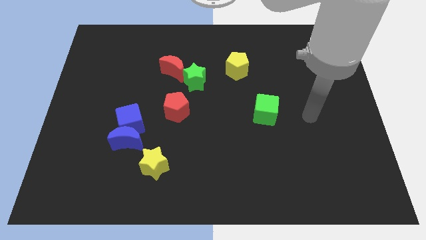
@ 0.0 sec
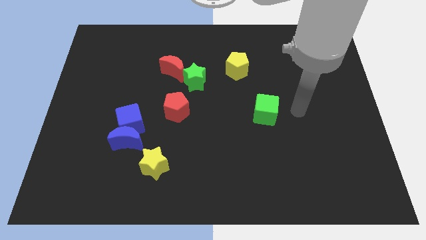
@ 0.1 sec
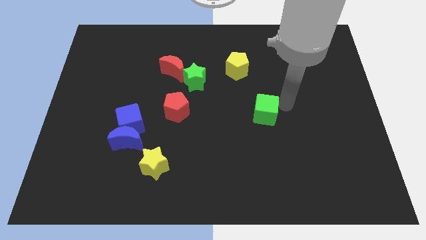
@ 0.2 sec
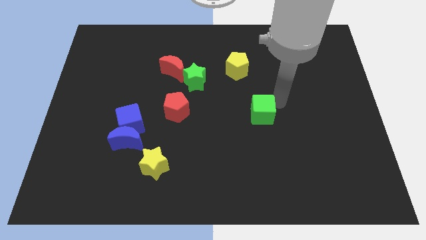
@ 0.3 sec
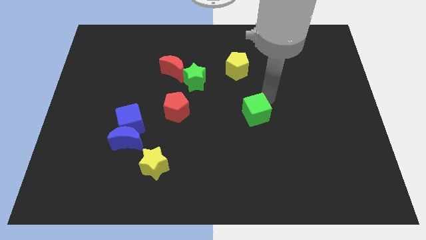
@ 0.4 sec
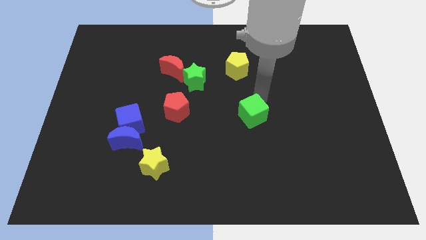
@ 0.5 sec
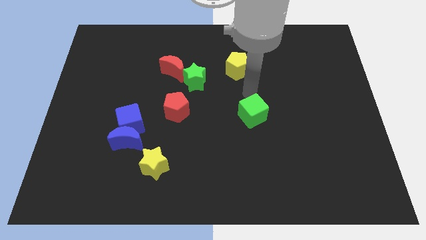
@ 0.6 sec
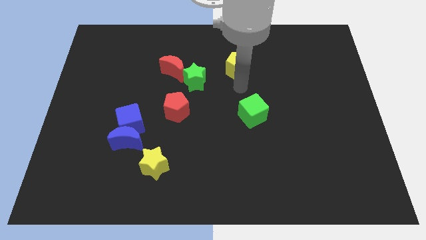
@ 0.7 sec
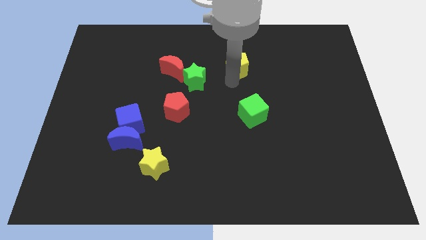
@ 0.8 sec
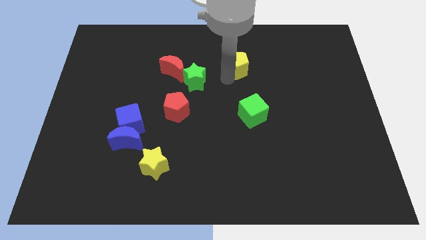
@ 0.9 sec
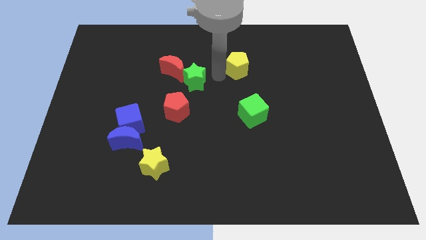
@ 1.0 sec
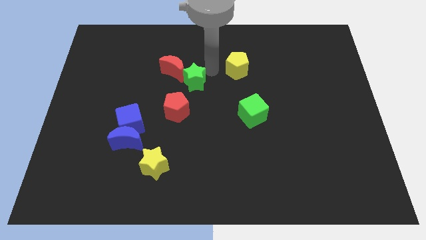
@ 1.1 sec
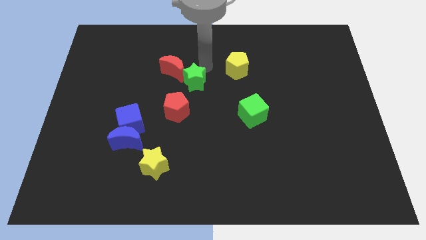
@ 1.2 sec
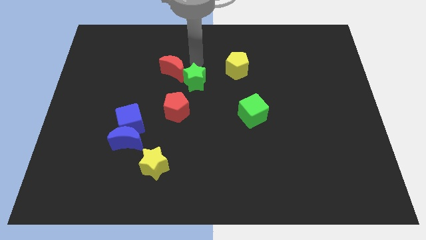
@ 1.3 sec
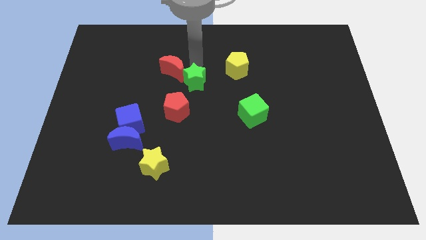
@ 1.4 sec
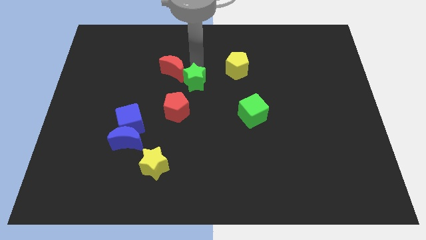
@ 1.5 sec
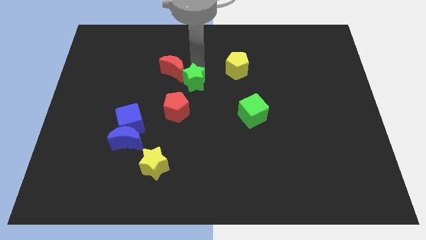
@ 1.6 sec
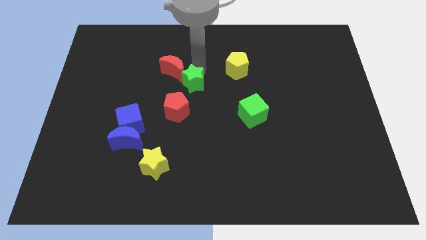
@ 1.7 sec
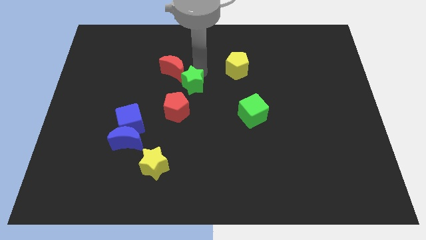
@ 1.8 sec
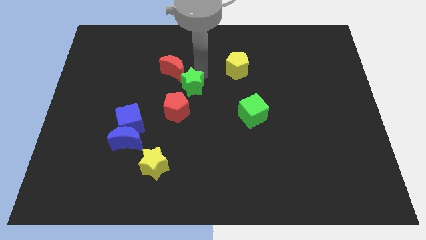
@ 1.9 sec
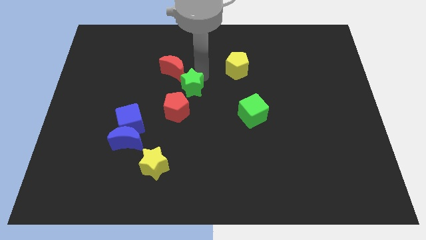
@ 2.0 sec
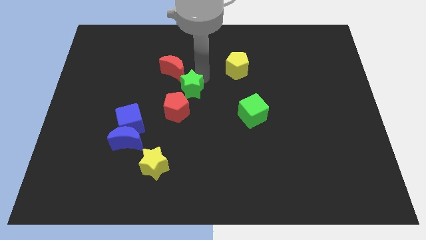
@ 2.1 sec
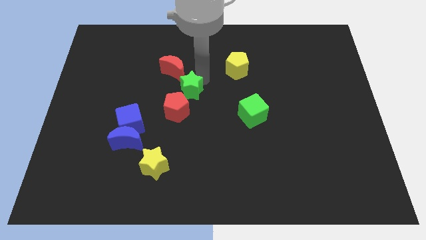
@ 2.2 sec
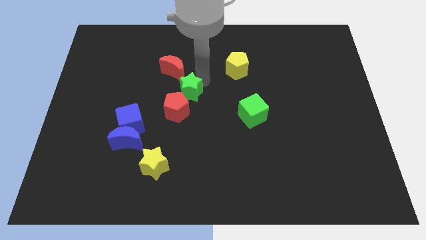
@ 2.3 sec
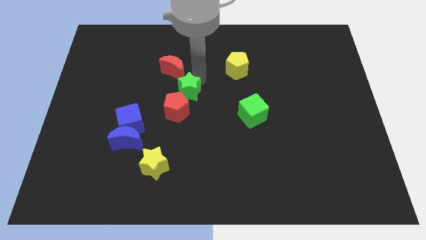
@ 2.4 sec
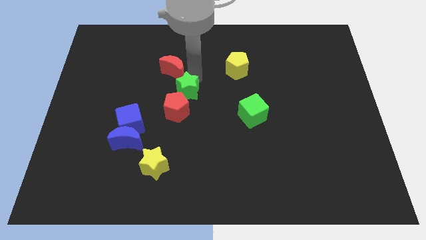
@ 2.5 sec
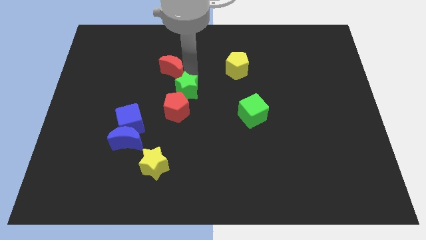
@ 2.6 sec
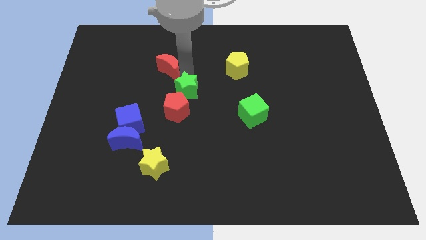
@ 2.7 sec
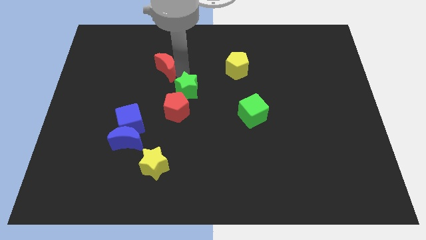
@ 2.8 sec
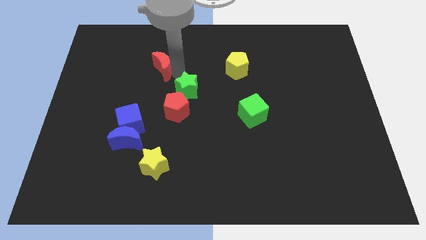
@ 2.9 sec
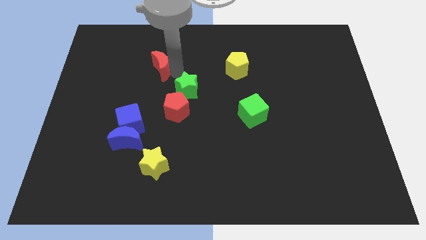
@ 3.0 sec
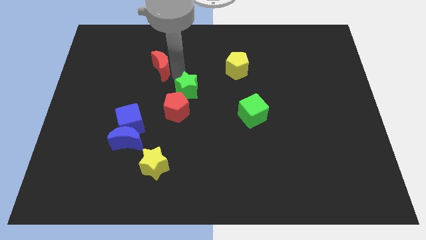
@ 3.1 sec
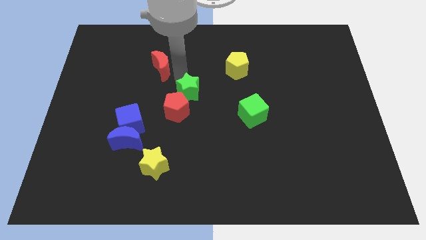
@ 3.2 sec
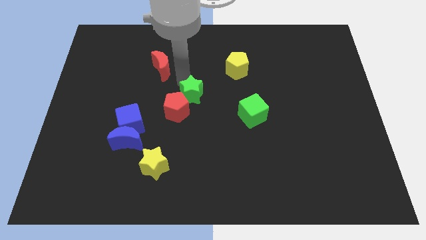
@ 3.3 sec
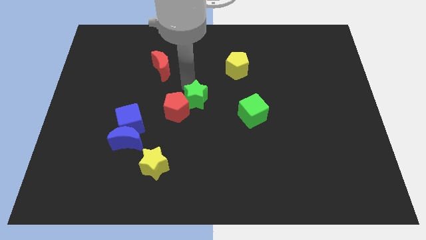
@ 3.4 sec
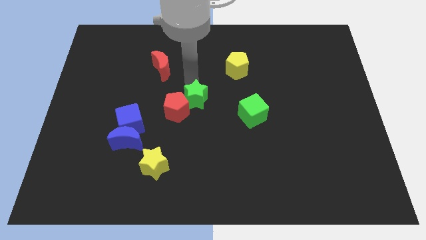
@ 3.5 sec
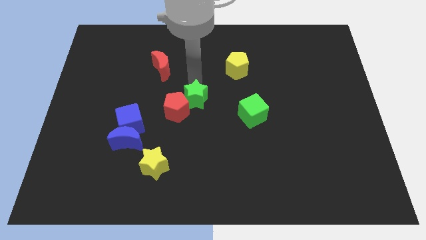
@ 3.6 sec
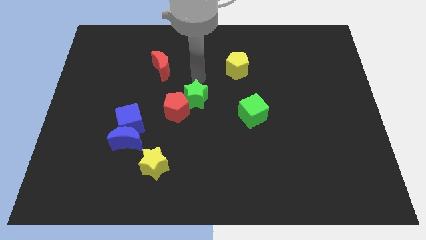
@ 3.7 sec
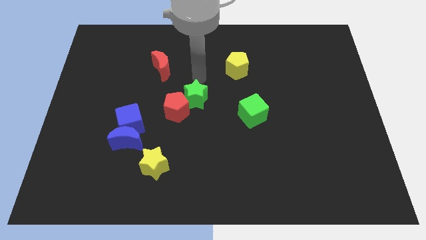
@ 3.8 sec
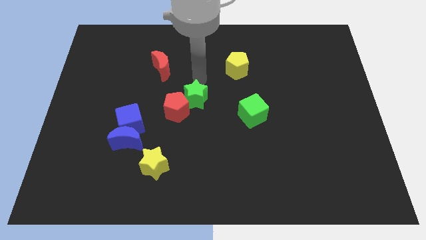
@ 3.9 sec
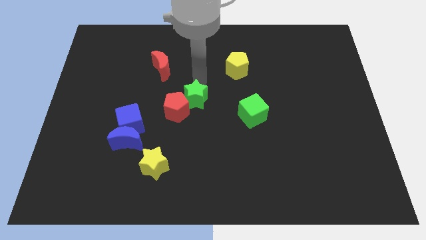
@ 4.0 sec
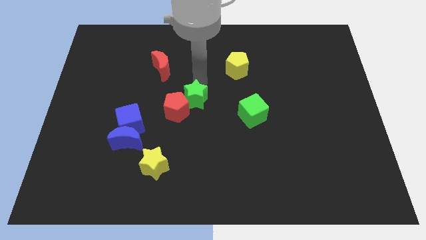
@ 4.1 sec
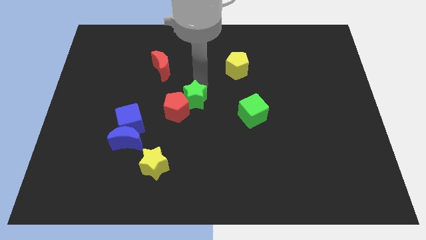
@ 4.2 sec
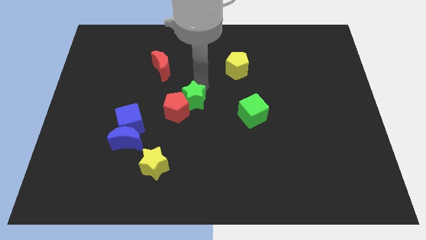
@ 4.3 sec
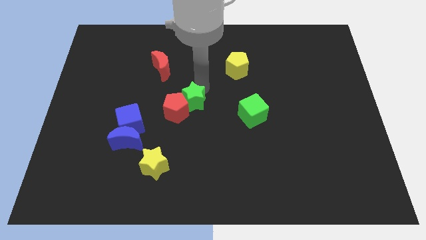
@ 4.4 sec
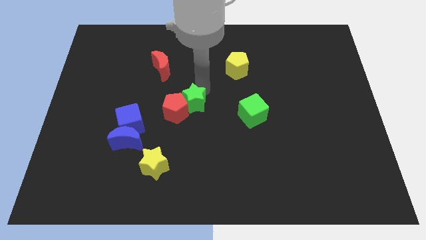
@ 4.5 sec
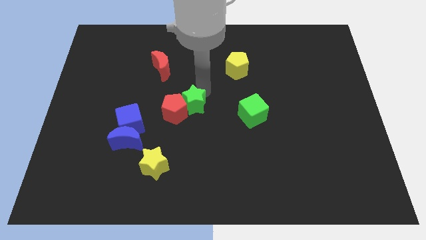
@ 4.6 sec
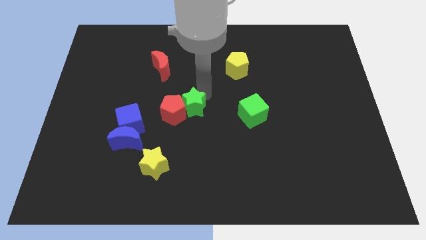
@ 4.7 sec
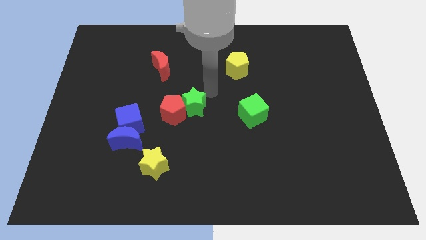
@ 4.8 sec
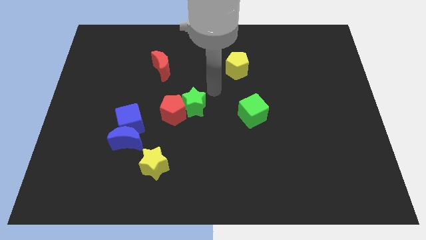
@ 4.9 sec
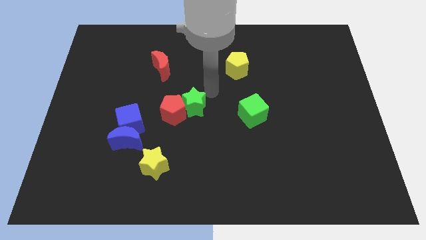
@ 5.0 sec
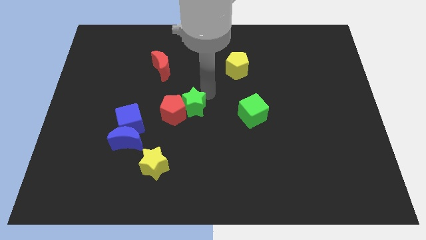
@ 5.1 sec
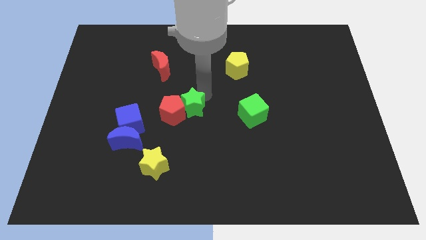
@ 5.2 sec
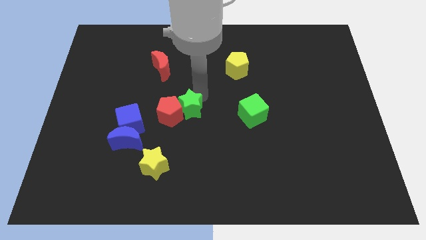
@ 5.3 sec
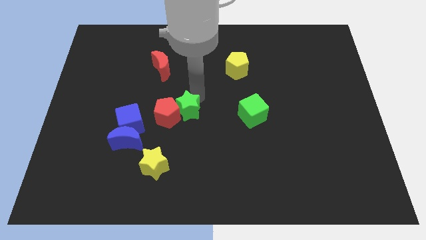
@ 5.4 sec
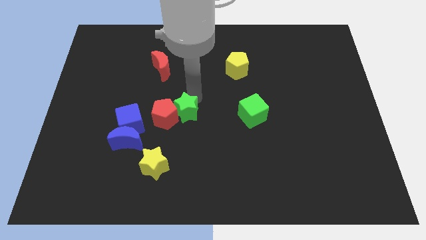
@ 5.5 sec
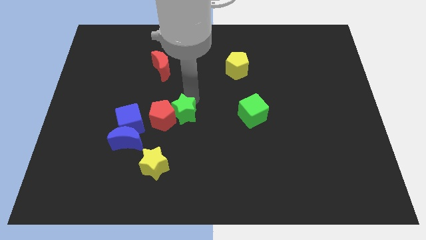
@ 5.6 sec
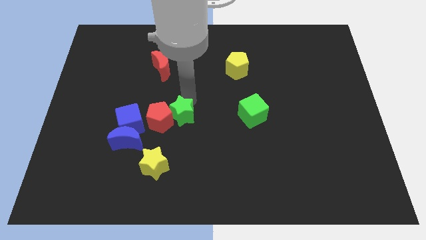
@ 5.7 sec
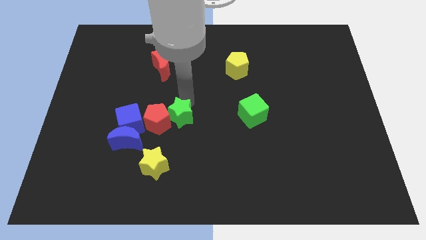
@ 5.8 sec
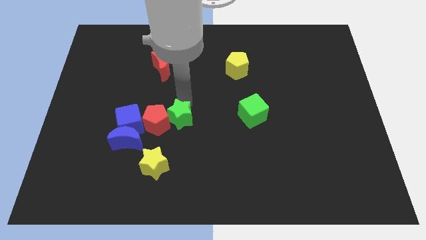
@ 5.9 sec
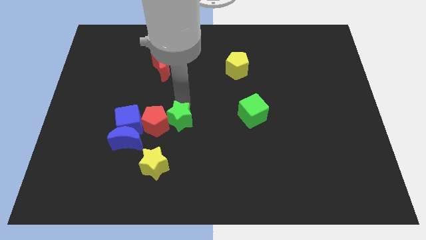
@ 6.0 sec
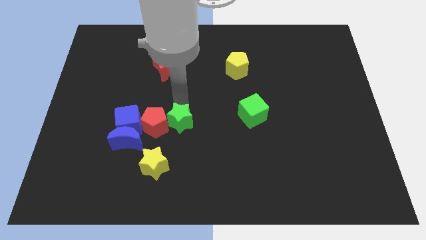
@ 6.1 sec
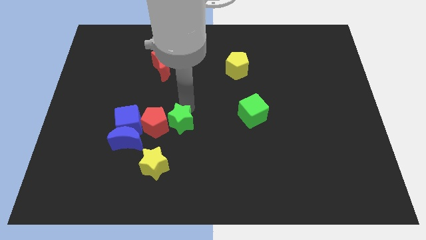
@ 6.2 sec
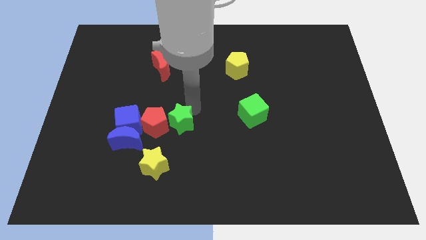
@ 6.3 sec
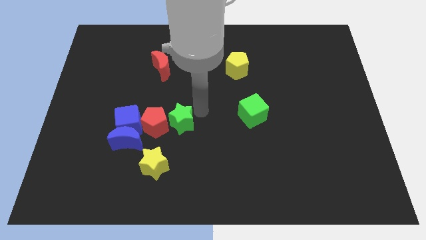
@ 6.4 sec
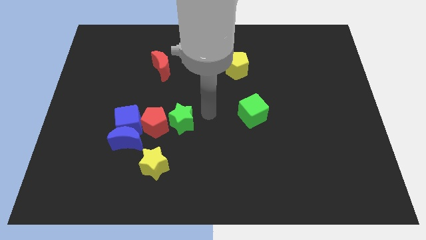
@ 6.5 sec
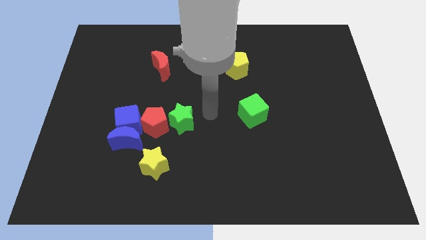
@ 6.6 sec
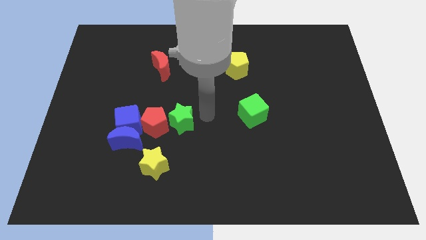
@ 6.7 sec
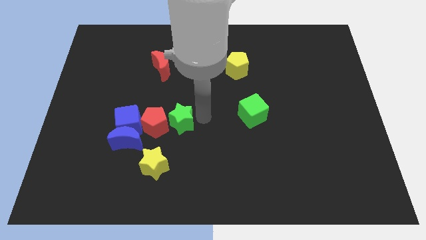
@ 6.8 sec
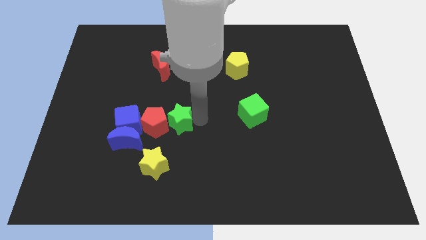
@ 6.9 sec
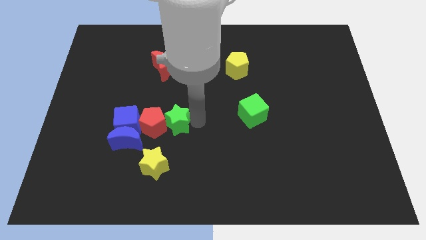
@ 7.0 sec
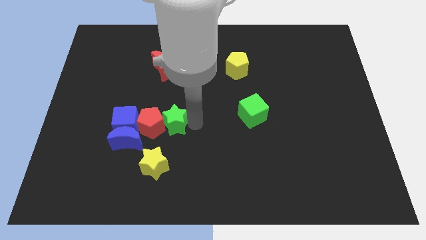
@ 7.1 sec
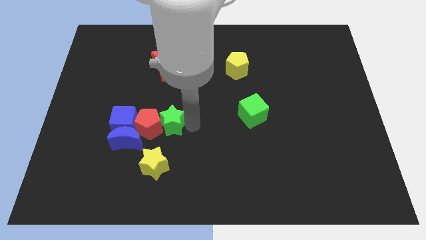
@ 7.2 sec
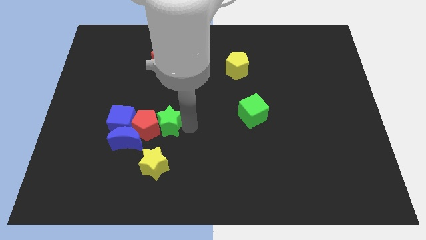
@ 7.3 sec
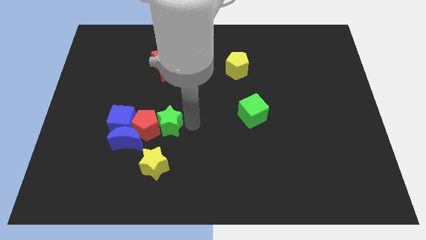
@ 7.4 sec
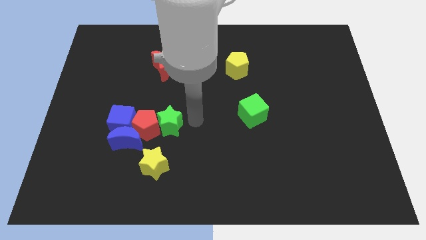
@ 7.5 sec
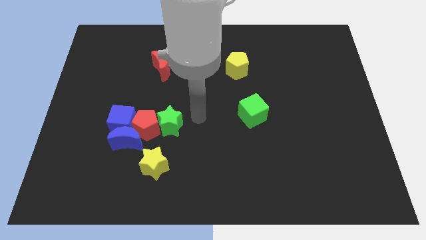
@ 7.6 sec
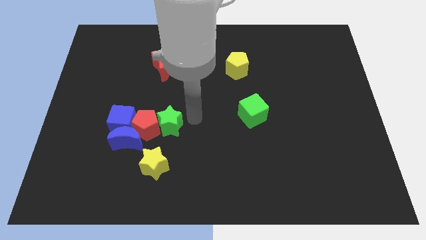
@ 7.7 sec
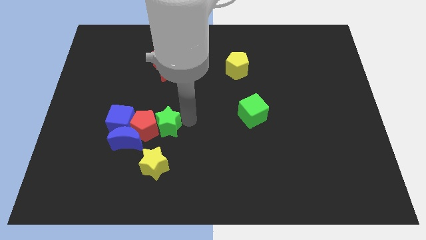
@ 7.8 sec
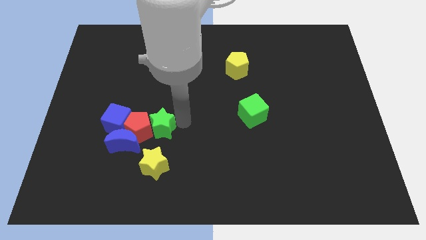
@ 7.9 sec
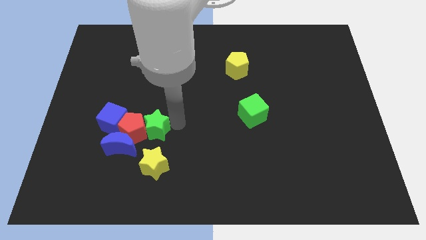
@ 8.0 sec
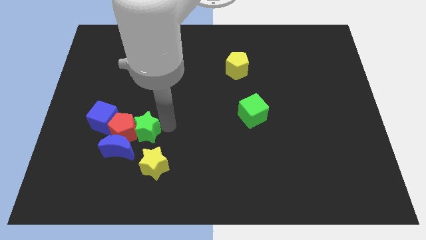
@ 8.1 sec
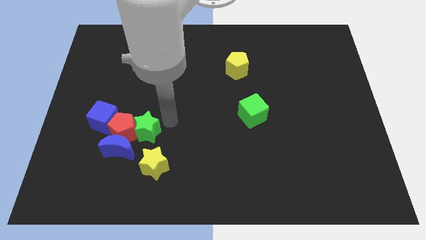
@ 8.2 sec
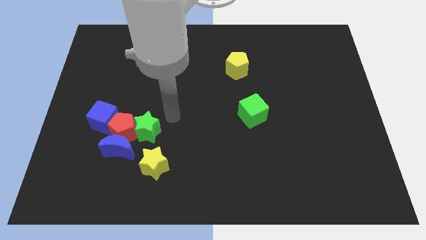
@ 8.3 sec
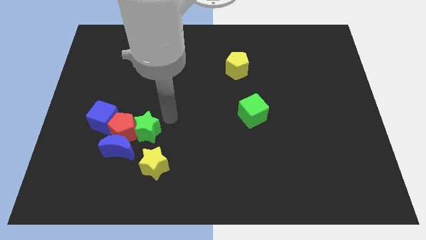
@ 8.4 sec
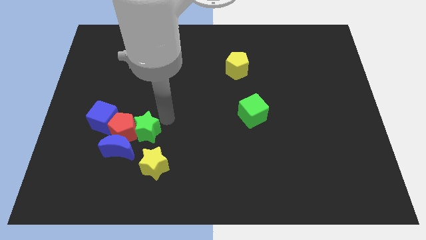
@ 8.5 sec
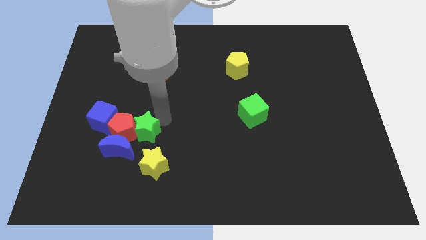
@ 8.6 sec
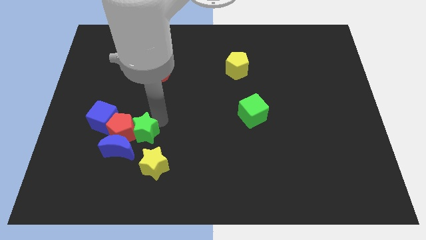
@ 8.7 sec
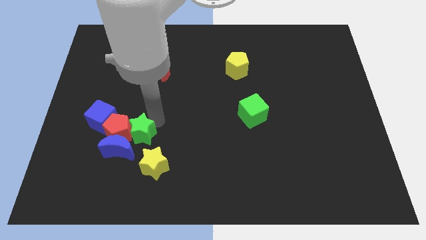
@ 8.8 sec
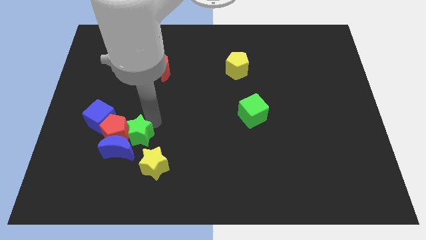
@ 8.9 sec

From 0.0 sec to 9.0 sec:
move the green star to the blue moon
